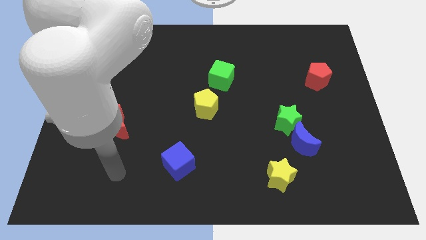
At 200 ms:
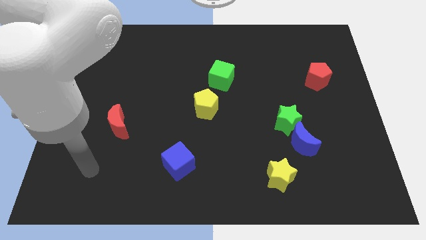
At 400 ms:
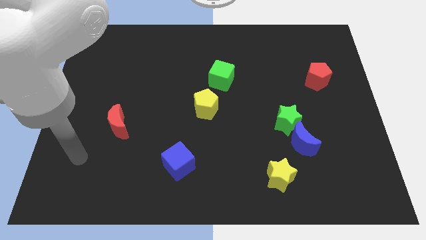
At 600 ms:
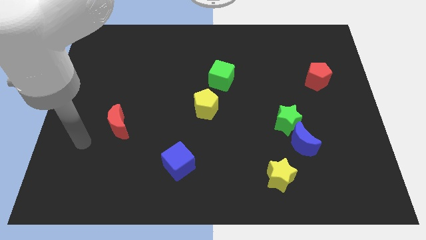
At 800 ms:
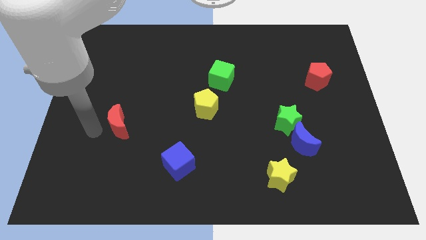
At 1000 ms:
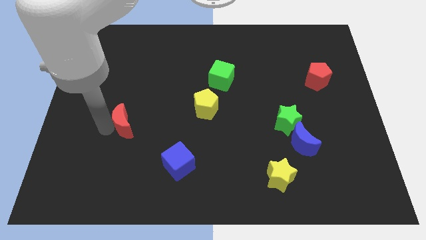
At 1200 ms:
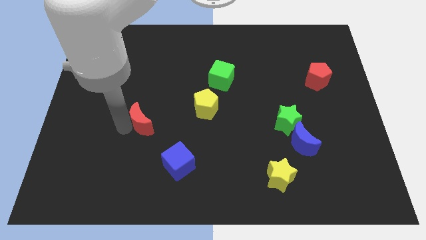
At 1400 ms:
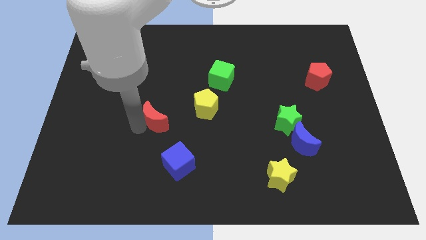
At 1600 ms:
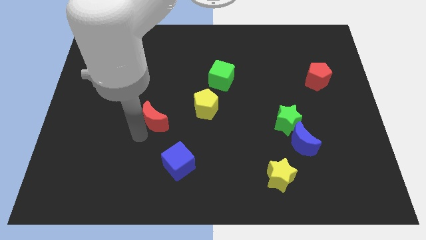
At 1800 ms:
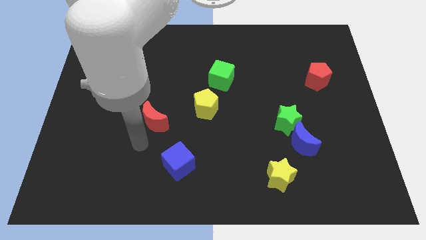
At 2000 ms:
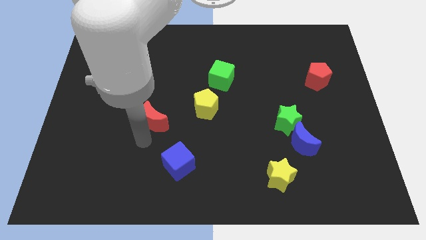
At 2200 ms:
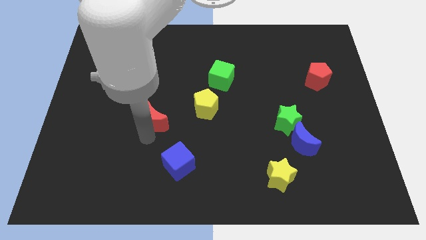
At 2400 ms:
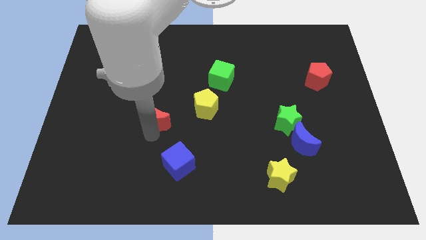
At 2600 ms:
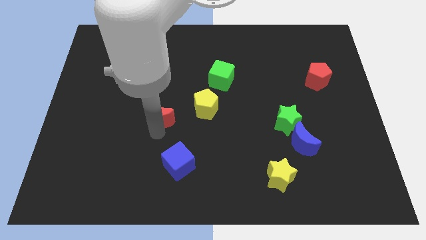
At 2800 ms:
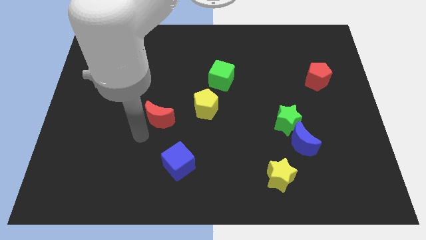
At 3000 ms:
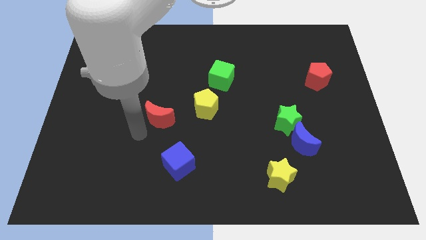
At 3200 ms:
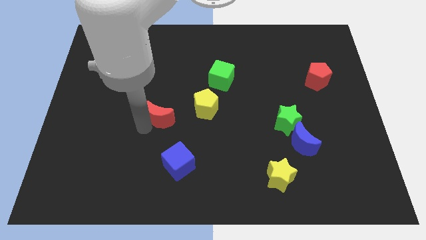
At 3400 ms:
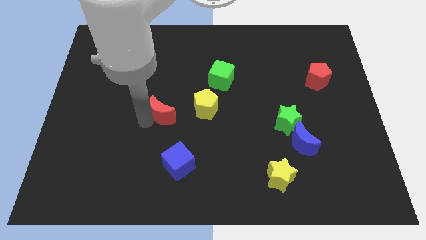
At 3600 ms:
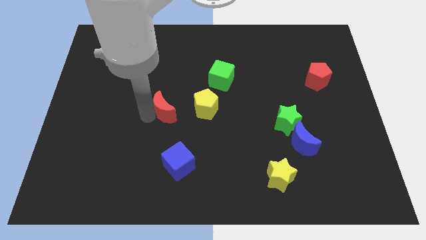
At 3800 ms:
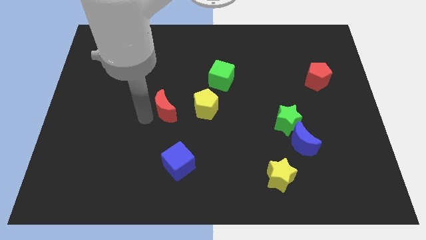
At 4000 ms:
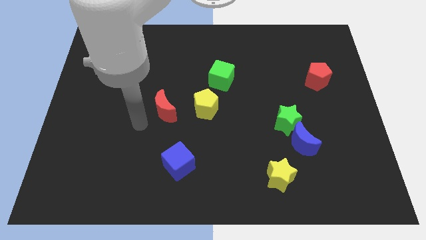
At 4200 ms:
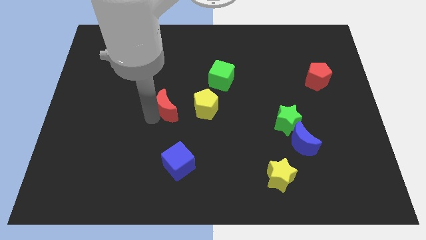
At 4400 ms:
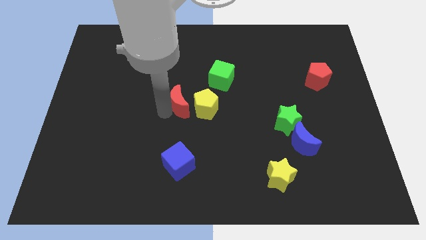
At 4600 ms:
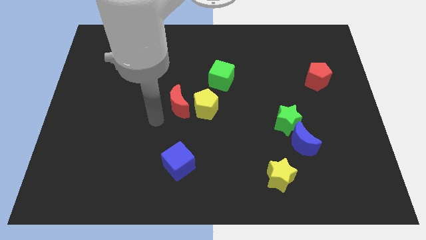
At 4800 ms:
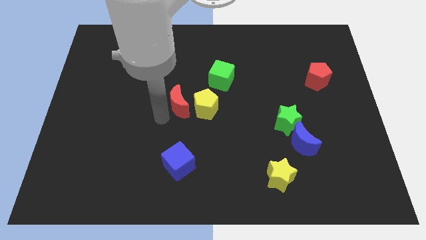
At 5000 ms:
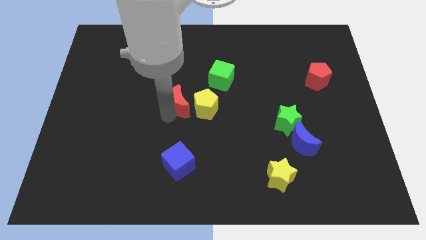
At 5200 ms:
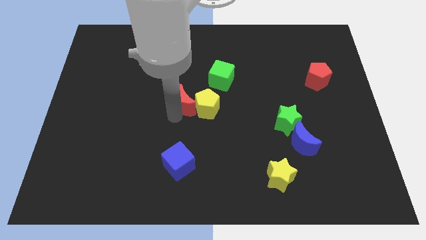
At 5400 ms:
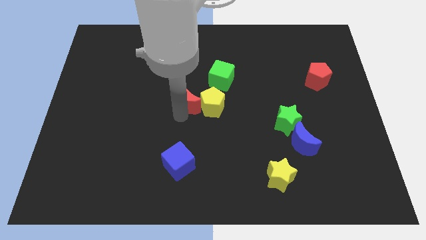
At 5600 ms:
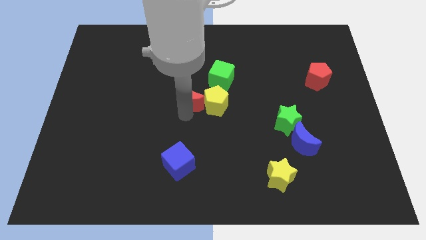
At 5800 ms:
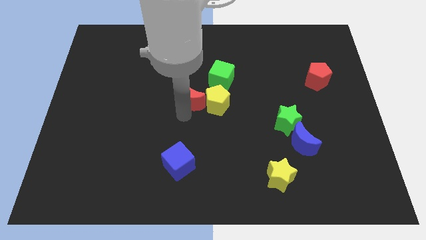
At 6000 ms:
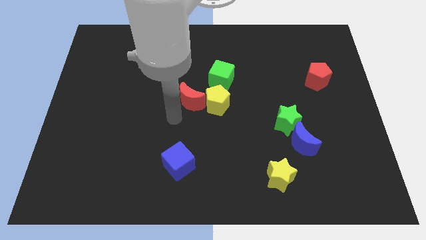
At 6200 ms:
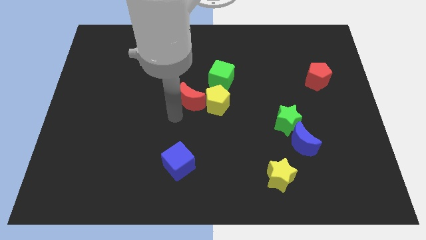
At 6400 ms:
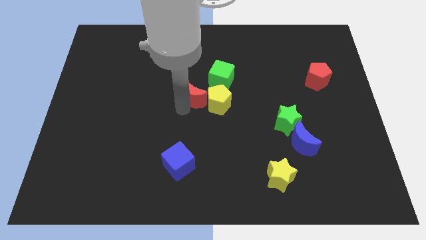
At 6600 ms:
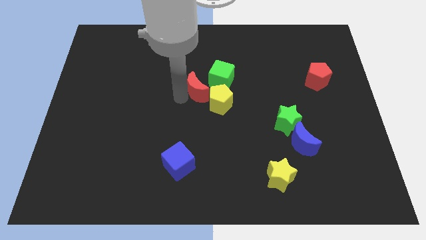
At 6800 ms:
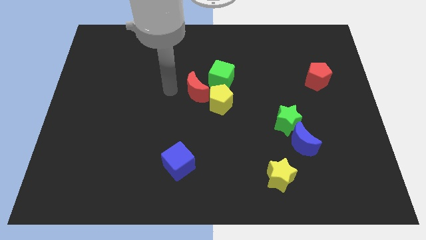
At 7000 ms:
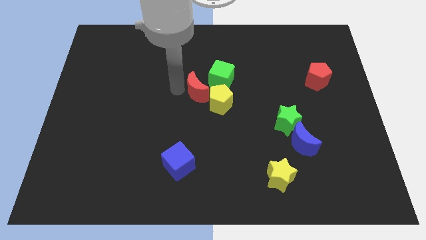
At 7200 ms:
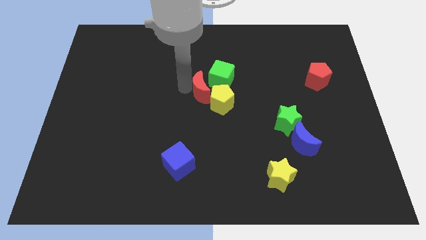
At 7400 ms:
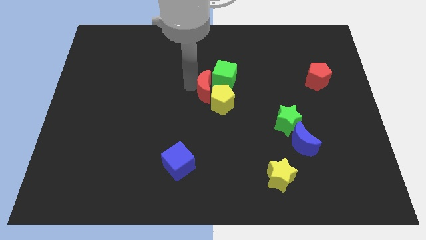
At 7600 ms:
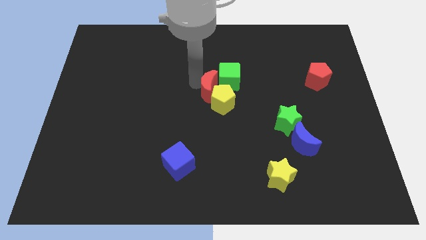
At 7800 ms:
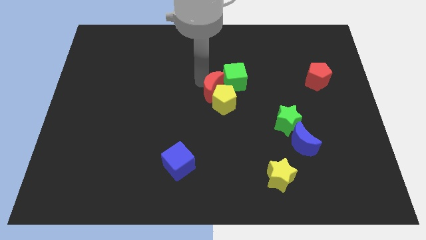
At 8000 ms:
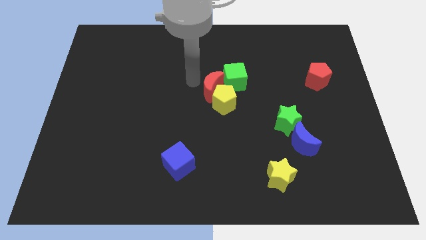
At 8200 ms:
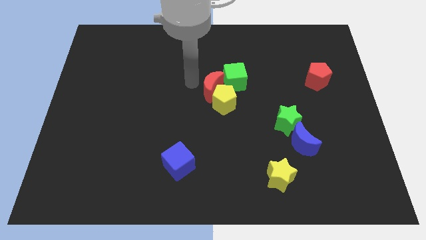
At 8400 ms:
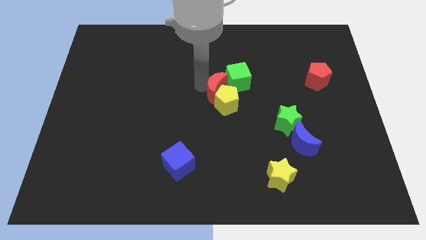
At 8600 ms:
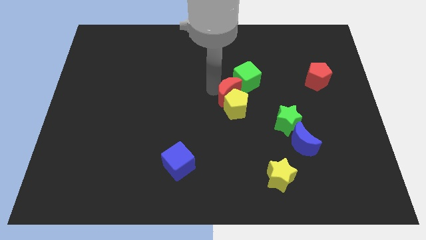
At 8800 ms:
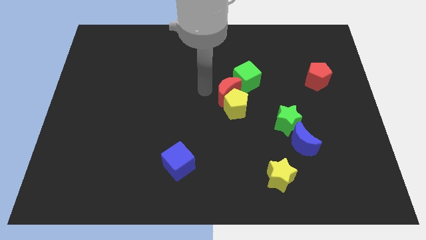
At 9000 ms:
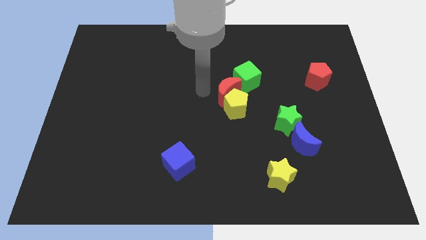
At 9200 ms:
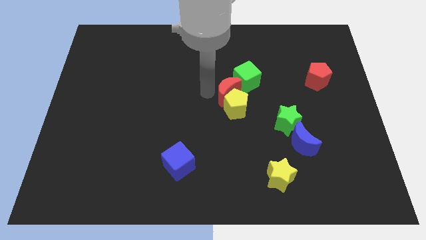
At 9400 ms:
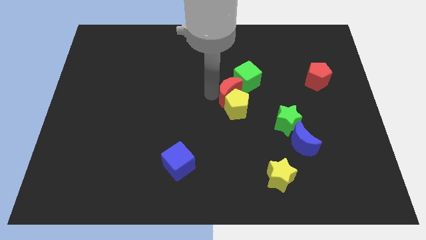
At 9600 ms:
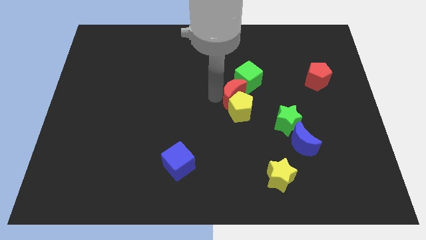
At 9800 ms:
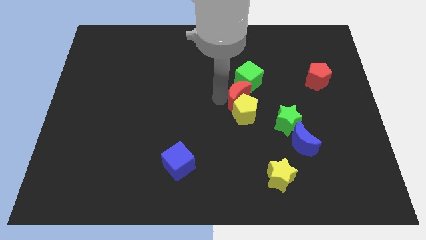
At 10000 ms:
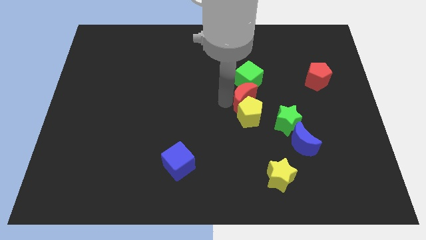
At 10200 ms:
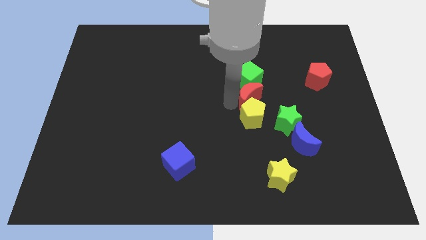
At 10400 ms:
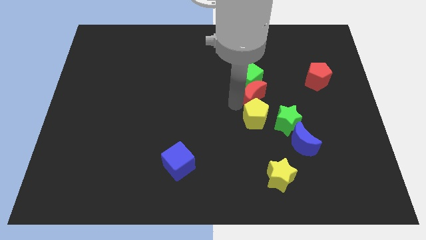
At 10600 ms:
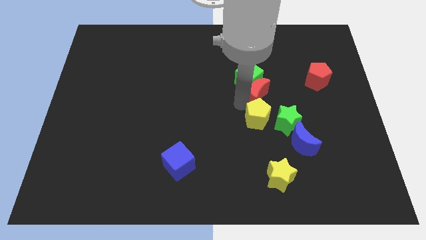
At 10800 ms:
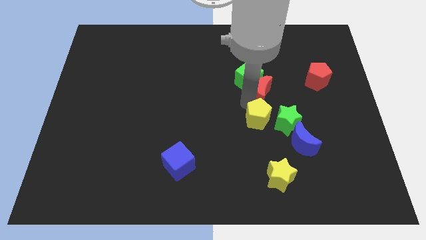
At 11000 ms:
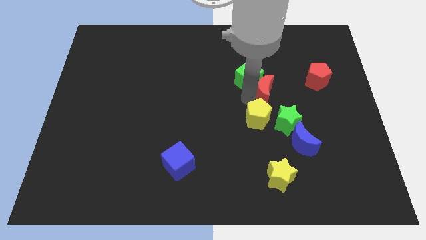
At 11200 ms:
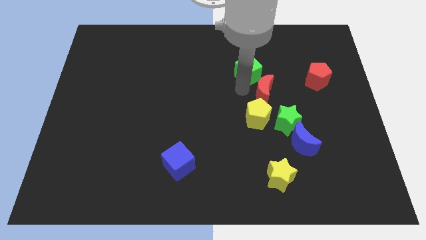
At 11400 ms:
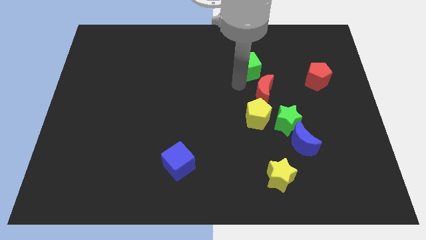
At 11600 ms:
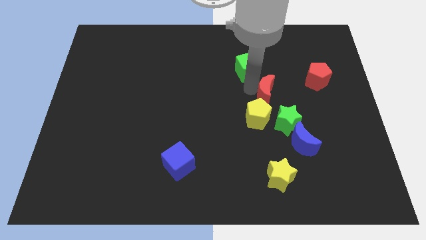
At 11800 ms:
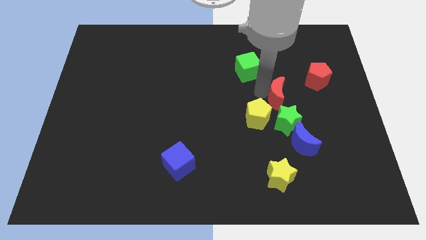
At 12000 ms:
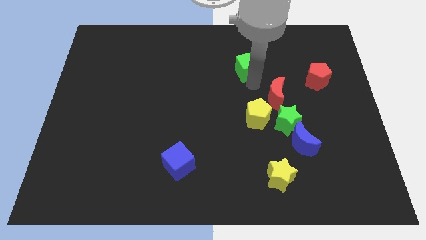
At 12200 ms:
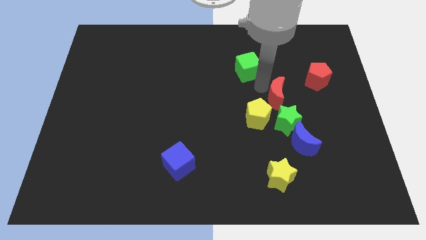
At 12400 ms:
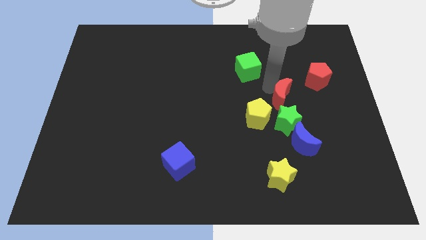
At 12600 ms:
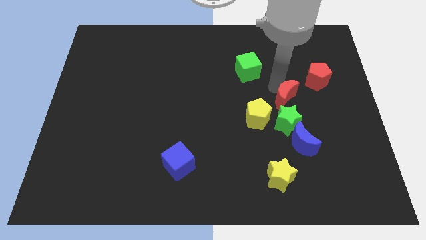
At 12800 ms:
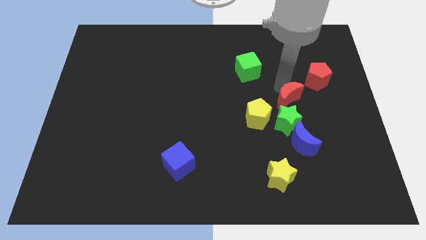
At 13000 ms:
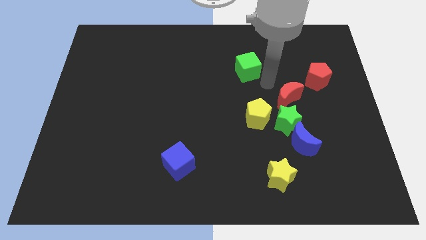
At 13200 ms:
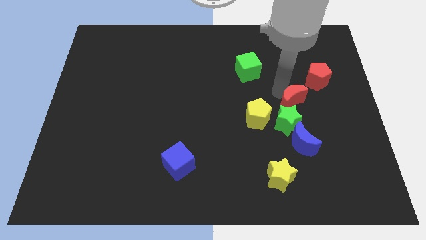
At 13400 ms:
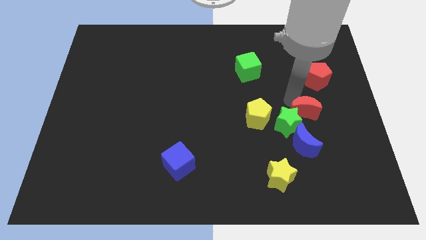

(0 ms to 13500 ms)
put the red moon to the right of the green star
